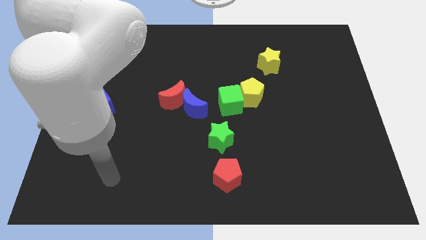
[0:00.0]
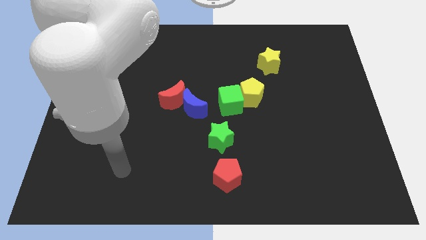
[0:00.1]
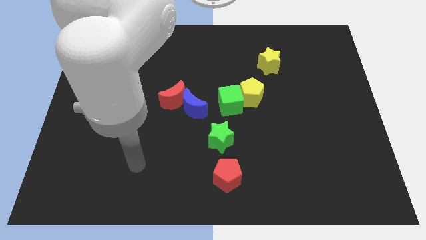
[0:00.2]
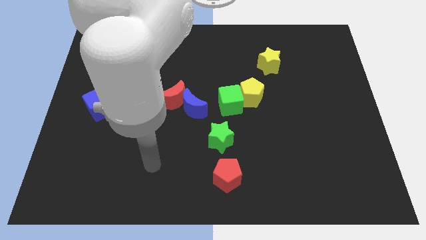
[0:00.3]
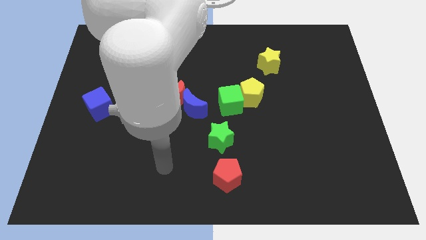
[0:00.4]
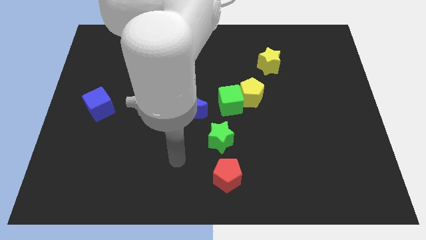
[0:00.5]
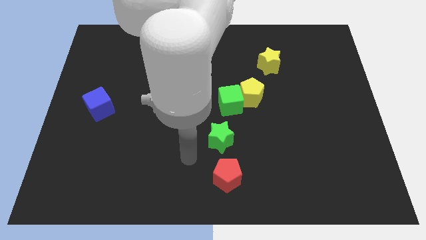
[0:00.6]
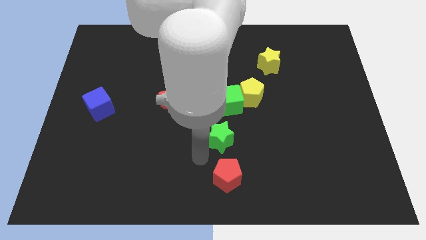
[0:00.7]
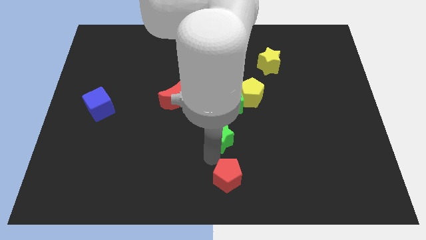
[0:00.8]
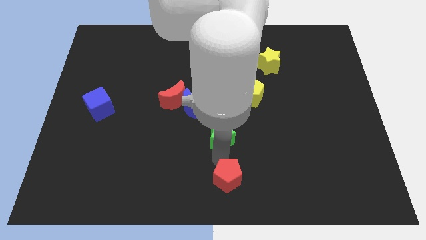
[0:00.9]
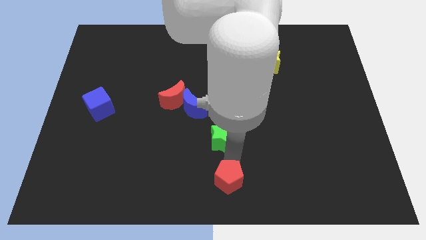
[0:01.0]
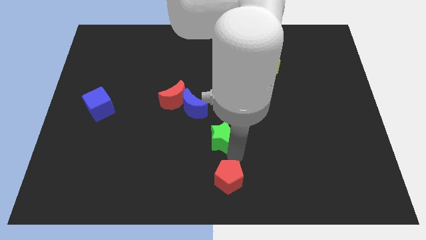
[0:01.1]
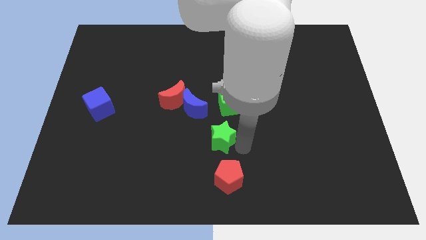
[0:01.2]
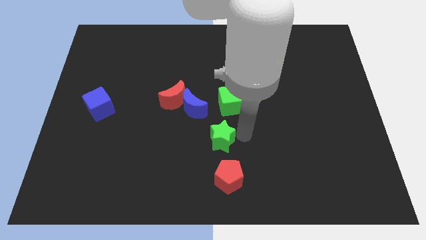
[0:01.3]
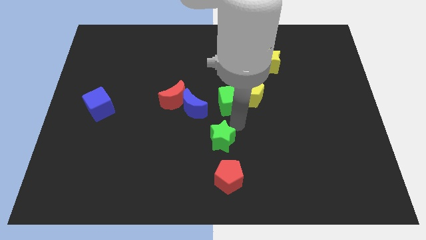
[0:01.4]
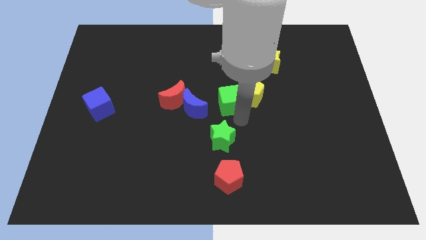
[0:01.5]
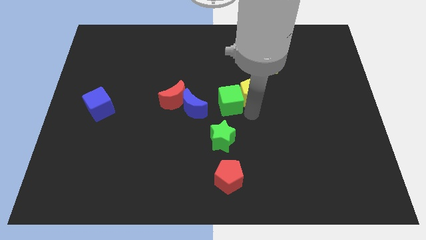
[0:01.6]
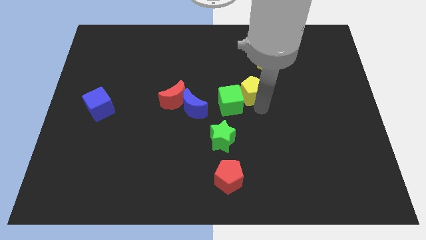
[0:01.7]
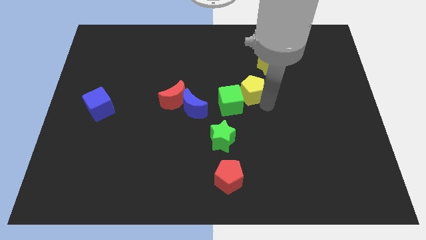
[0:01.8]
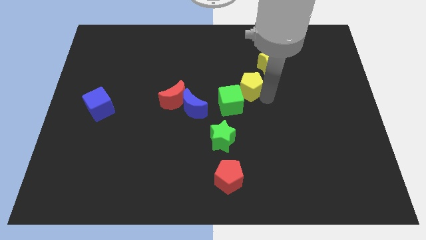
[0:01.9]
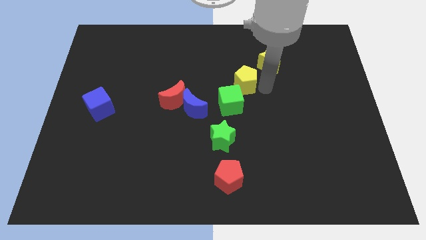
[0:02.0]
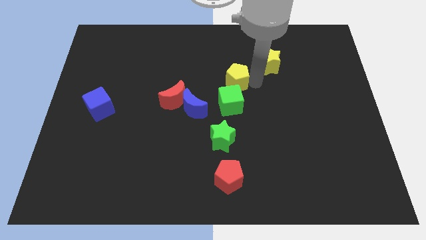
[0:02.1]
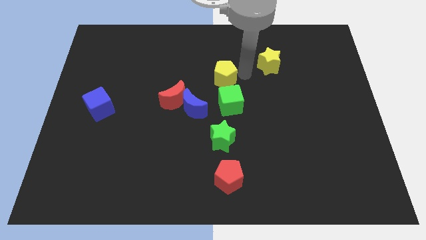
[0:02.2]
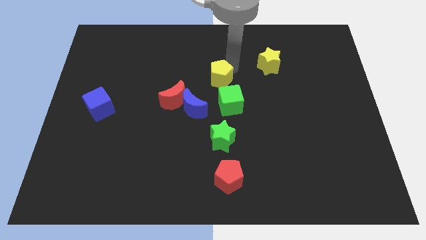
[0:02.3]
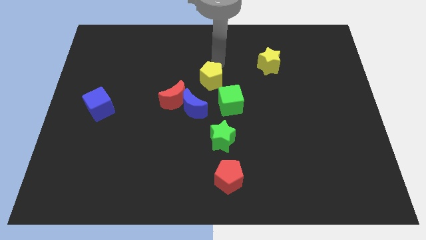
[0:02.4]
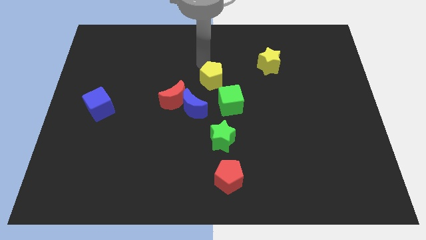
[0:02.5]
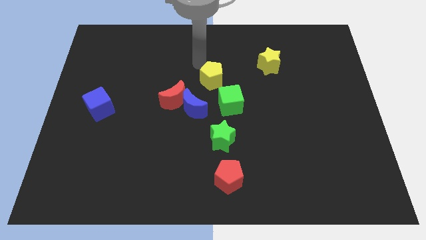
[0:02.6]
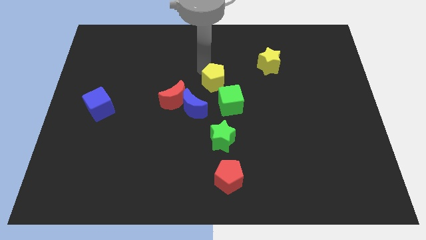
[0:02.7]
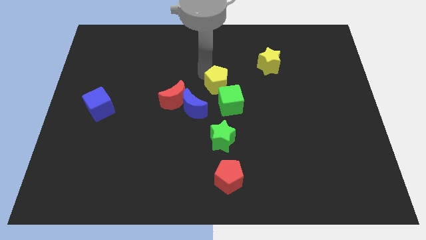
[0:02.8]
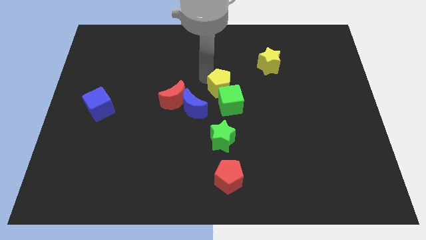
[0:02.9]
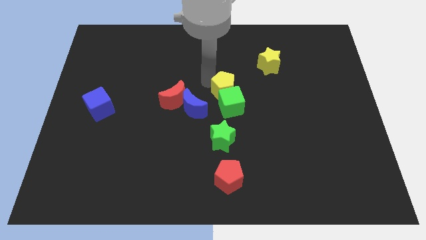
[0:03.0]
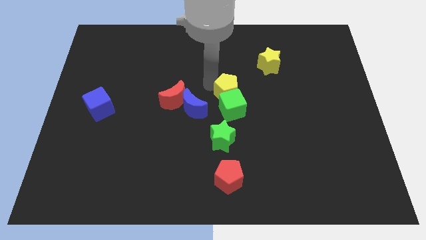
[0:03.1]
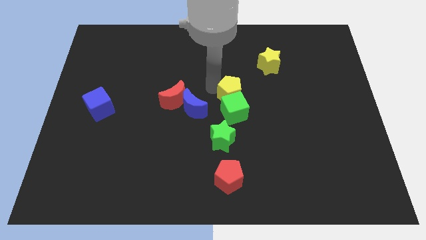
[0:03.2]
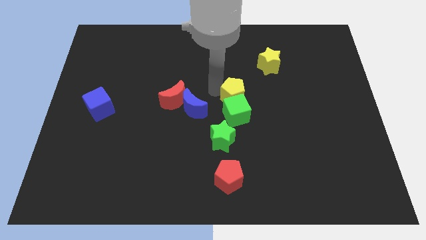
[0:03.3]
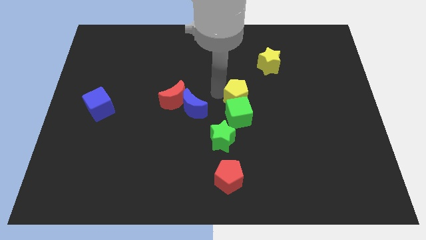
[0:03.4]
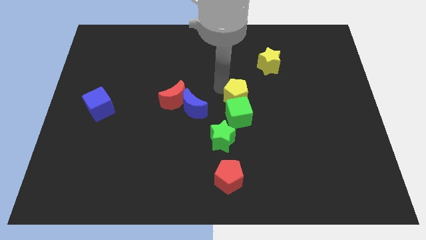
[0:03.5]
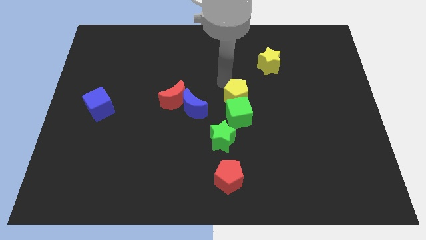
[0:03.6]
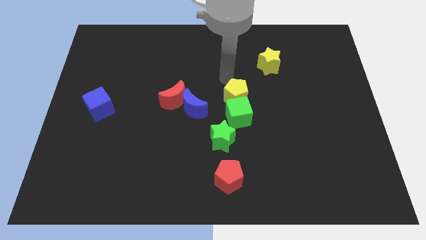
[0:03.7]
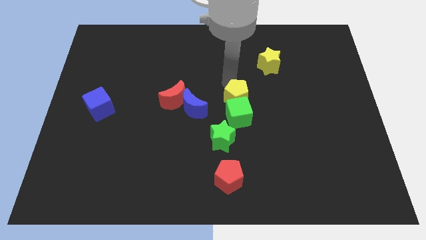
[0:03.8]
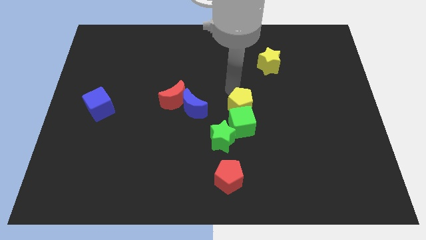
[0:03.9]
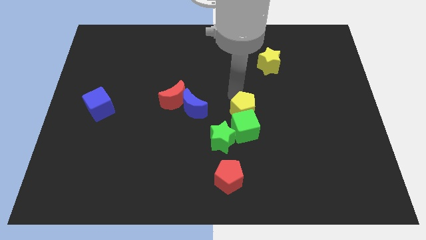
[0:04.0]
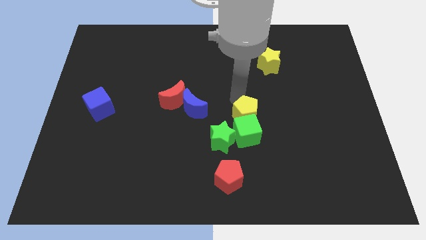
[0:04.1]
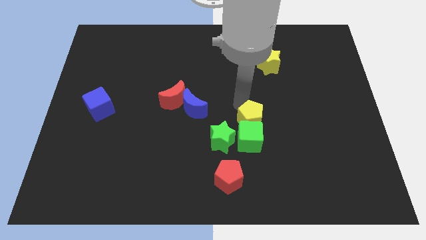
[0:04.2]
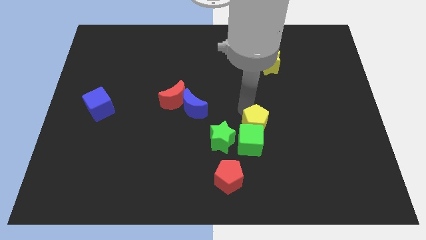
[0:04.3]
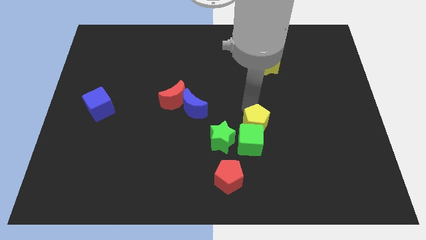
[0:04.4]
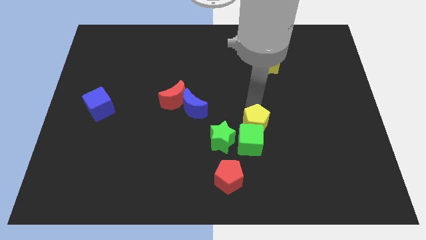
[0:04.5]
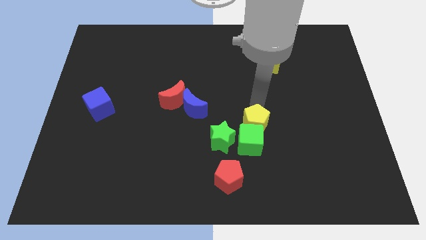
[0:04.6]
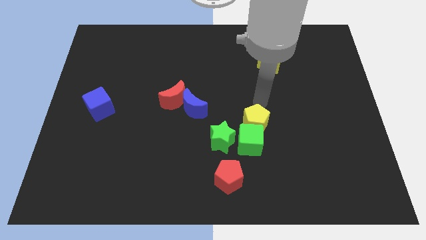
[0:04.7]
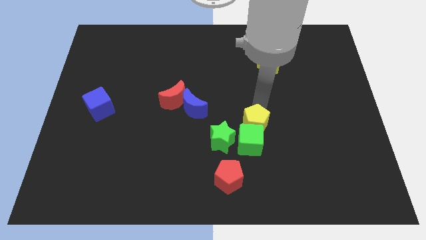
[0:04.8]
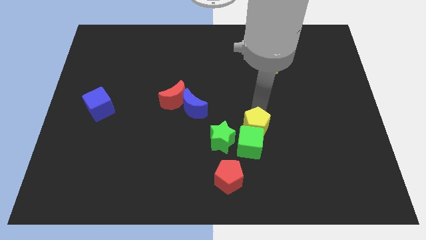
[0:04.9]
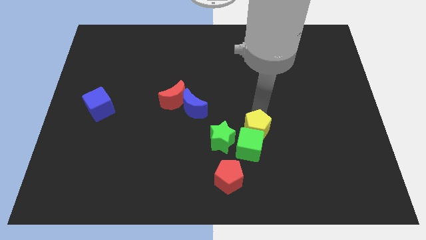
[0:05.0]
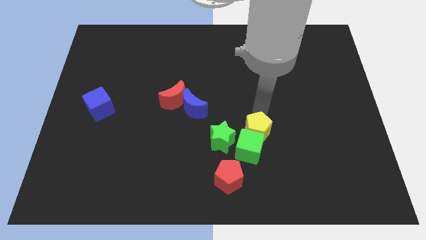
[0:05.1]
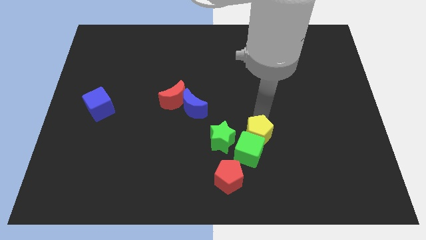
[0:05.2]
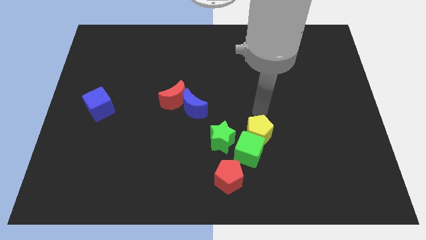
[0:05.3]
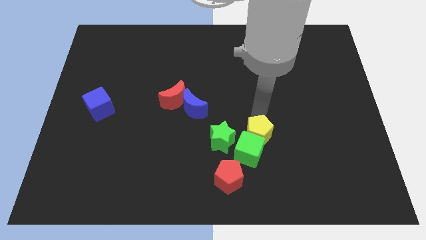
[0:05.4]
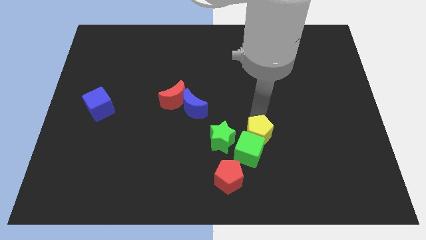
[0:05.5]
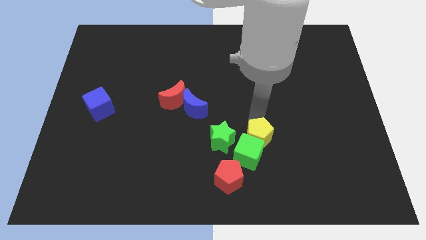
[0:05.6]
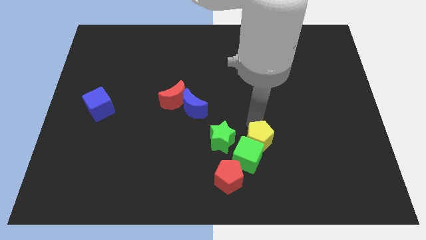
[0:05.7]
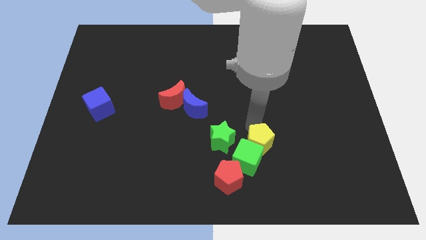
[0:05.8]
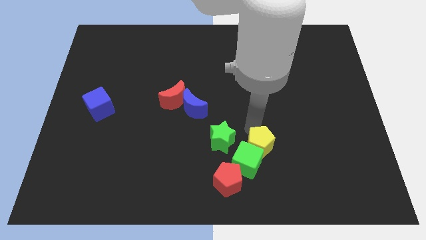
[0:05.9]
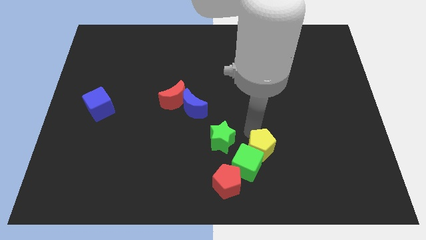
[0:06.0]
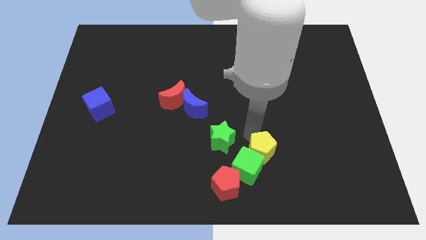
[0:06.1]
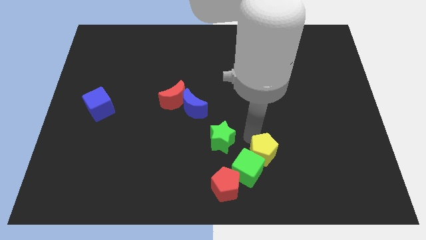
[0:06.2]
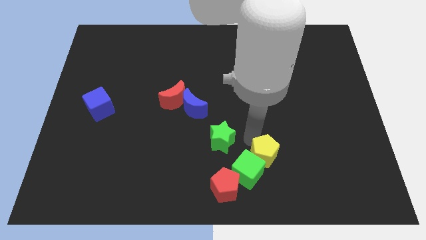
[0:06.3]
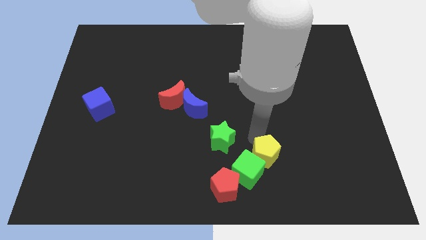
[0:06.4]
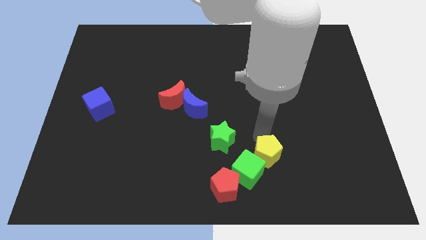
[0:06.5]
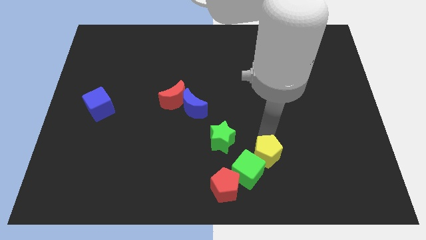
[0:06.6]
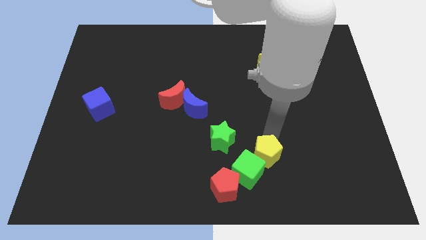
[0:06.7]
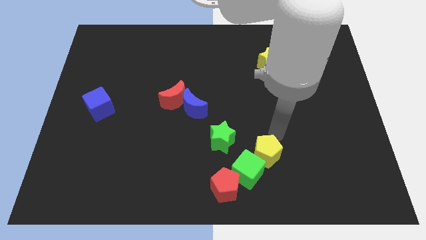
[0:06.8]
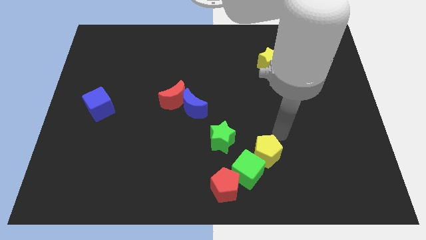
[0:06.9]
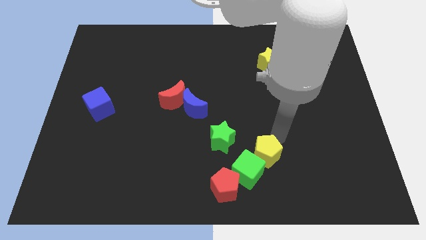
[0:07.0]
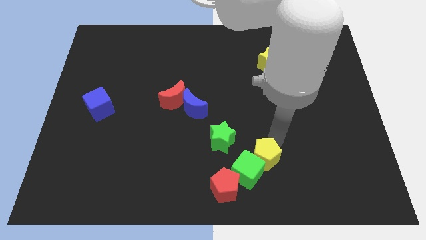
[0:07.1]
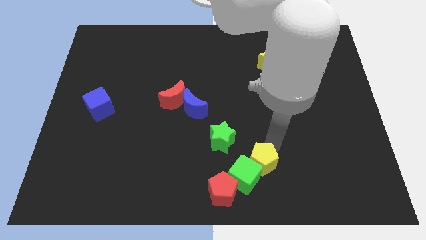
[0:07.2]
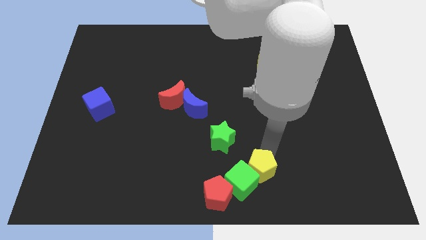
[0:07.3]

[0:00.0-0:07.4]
slide the yellow pentagon to the bottom side
